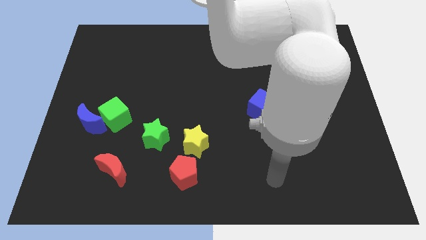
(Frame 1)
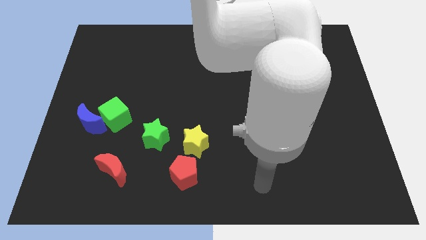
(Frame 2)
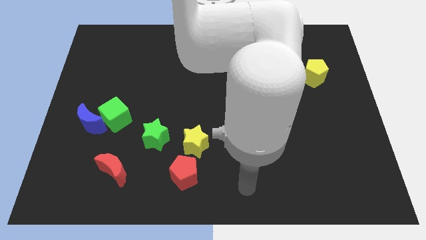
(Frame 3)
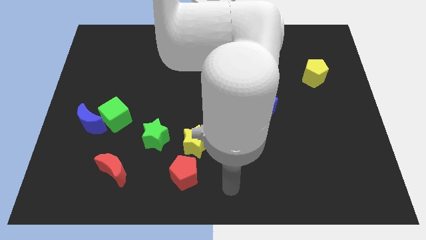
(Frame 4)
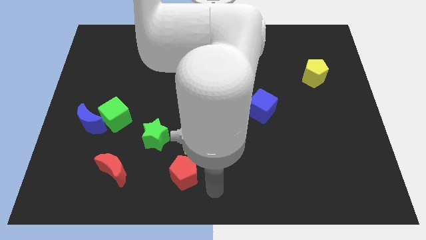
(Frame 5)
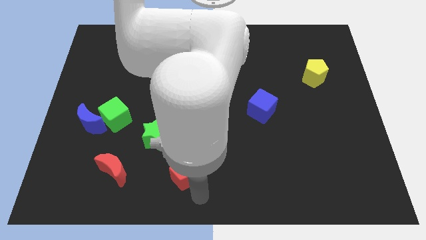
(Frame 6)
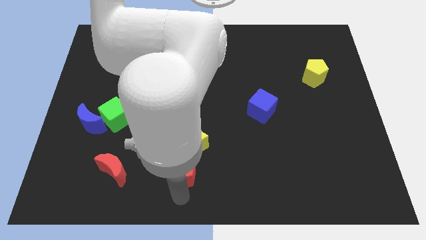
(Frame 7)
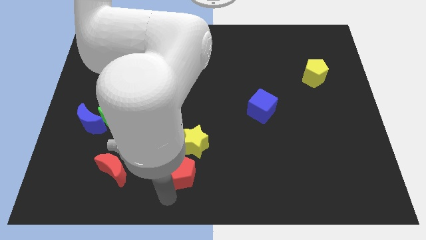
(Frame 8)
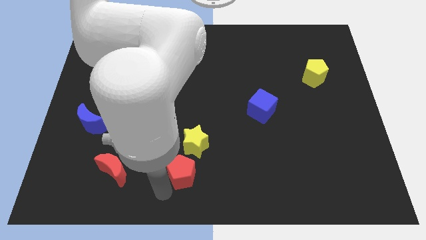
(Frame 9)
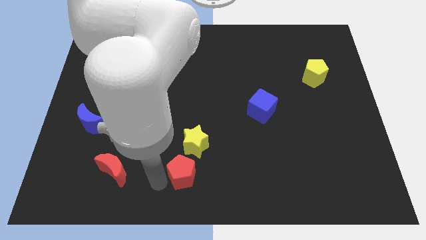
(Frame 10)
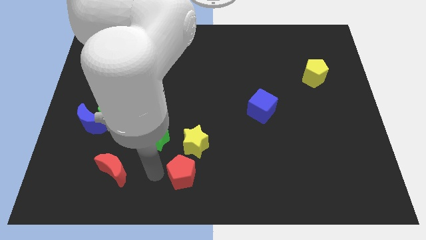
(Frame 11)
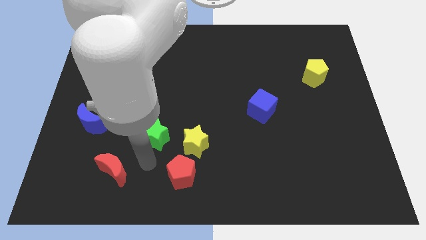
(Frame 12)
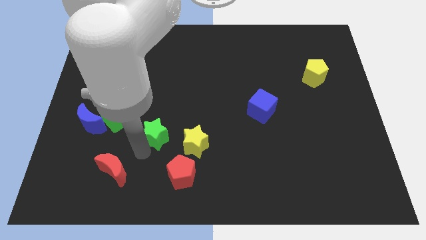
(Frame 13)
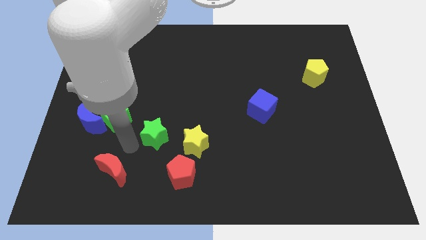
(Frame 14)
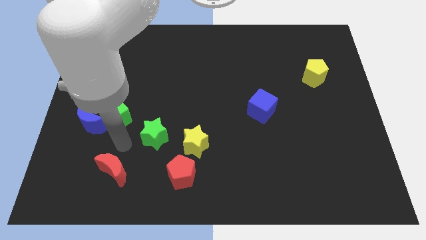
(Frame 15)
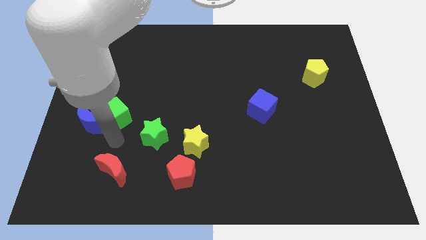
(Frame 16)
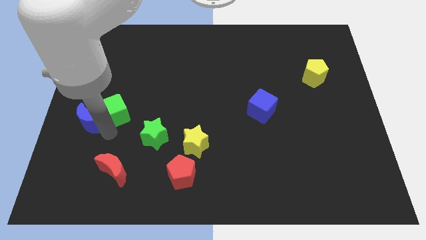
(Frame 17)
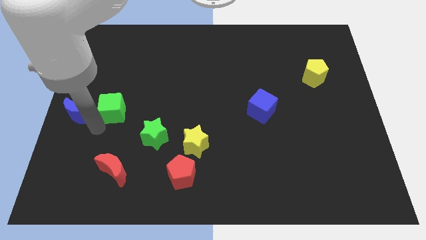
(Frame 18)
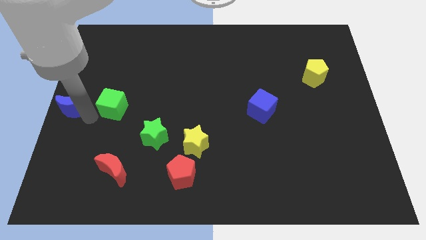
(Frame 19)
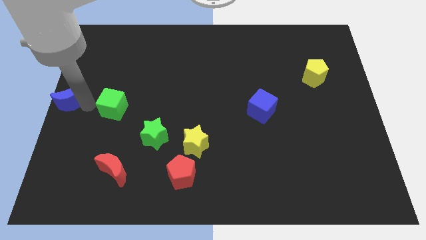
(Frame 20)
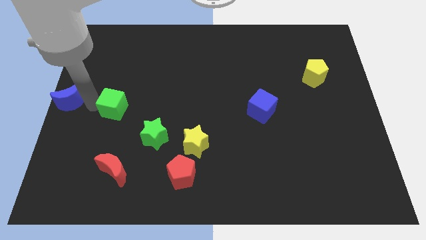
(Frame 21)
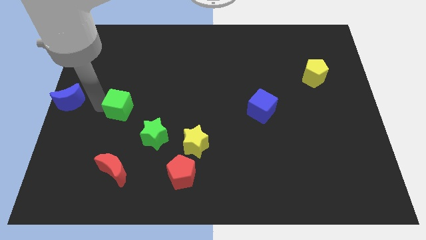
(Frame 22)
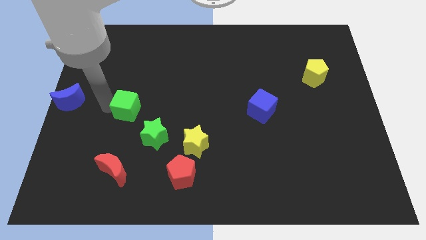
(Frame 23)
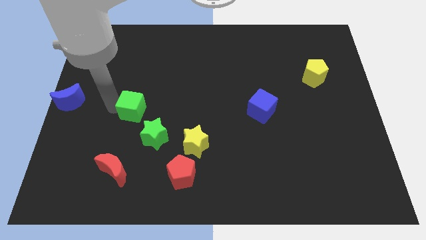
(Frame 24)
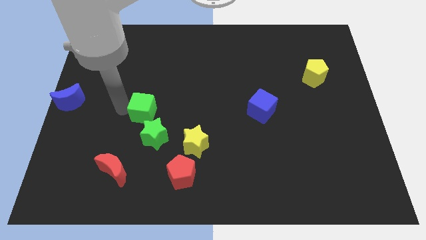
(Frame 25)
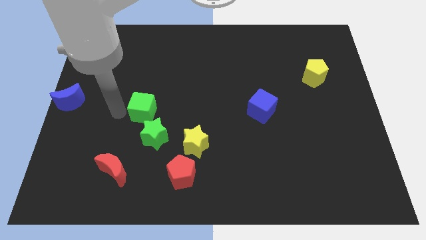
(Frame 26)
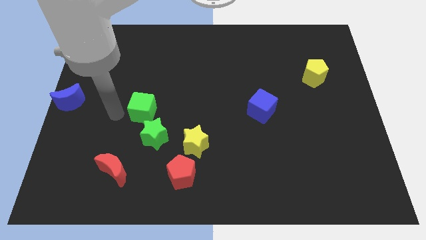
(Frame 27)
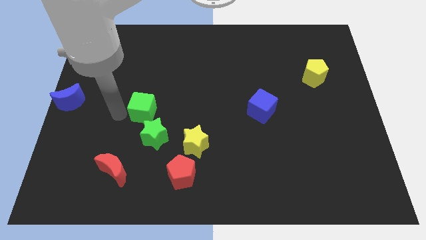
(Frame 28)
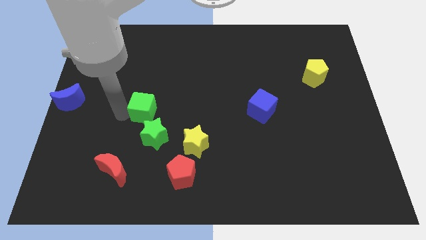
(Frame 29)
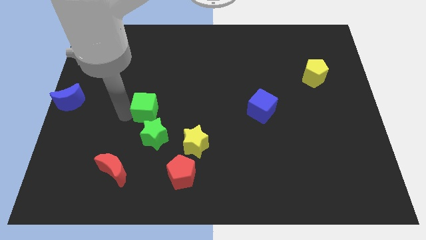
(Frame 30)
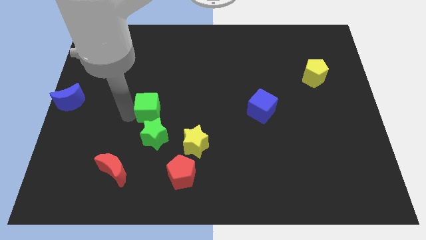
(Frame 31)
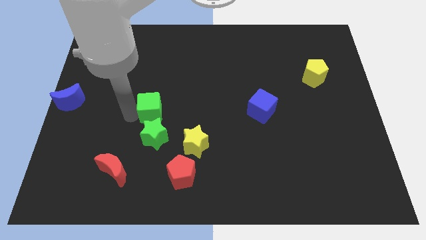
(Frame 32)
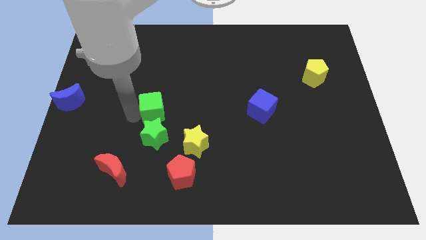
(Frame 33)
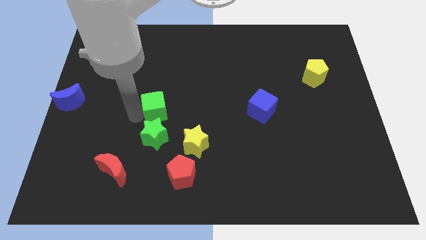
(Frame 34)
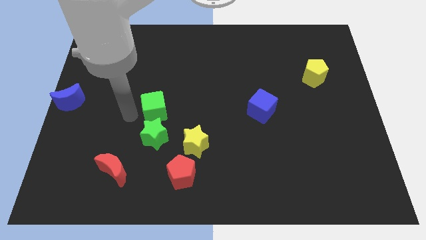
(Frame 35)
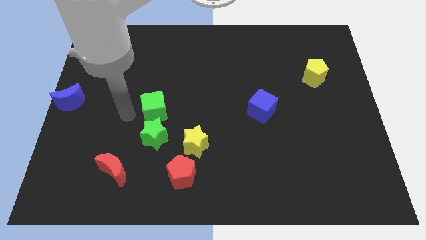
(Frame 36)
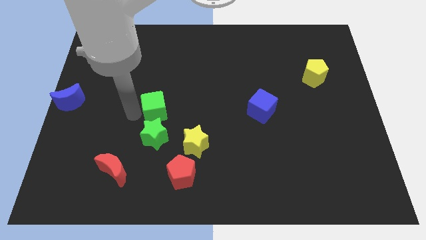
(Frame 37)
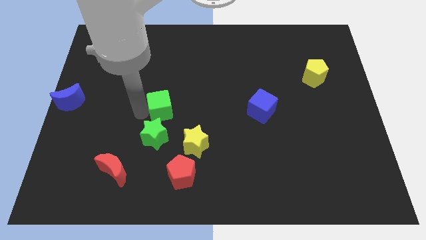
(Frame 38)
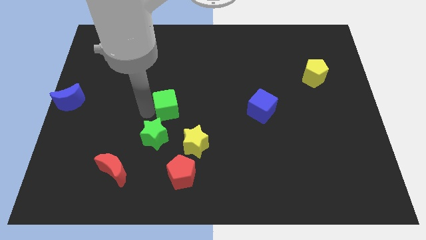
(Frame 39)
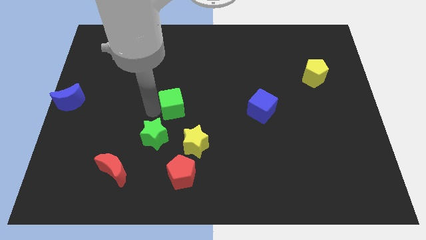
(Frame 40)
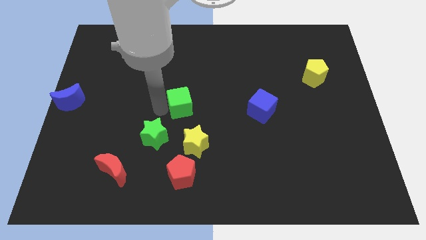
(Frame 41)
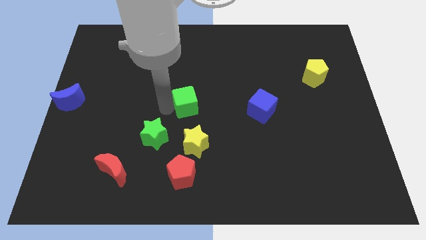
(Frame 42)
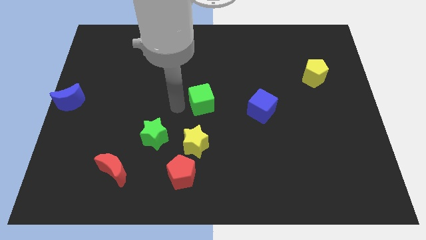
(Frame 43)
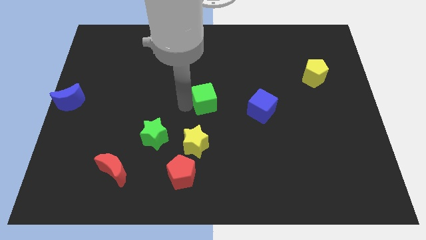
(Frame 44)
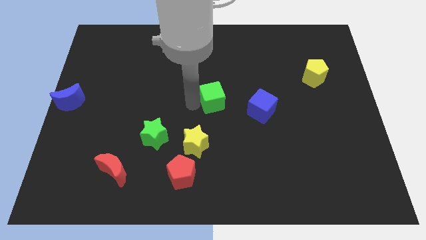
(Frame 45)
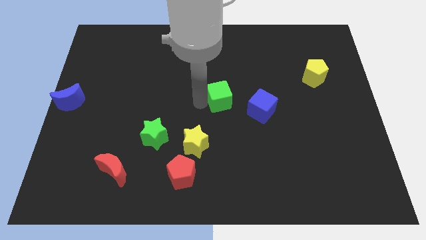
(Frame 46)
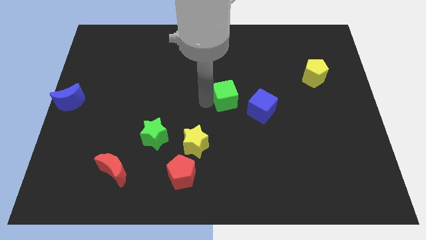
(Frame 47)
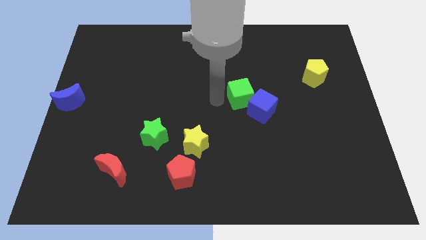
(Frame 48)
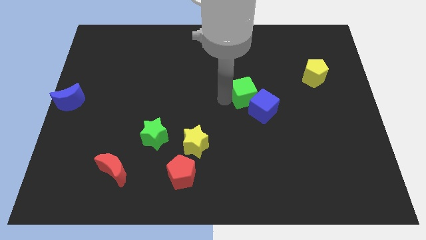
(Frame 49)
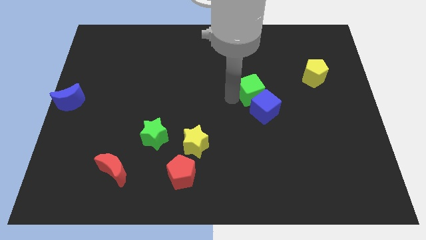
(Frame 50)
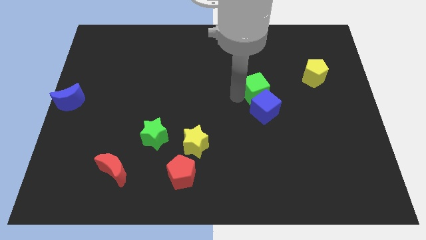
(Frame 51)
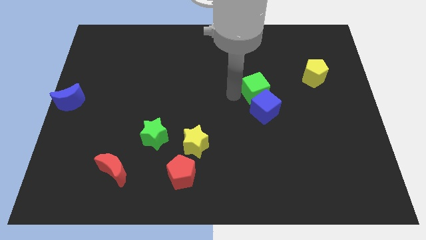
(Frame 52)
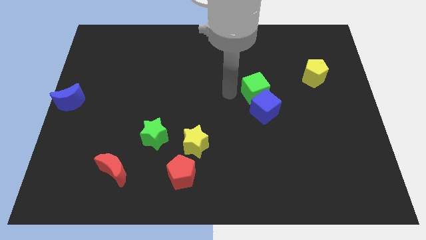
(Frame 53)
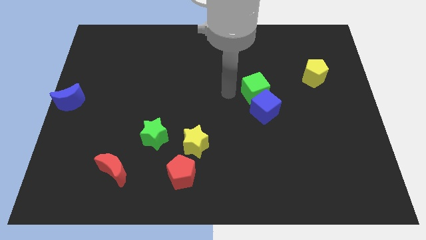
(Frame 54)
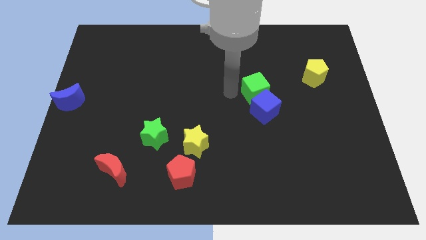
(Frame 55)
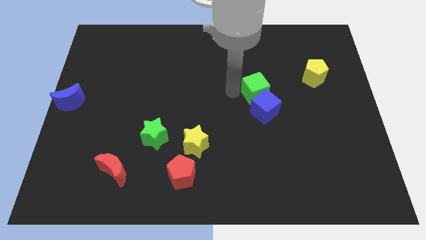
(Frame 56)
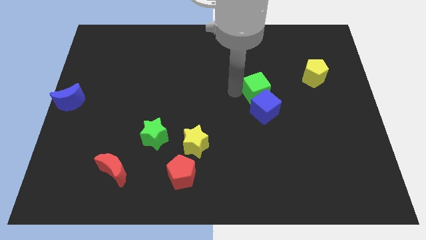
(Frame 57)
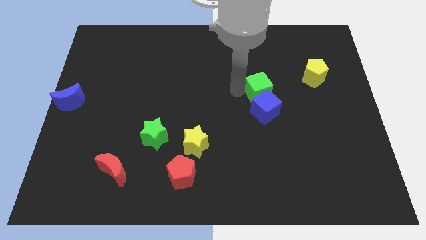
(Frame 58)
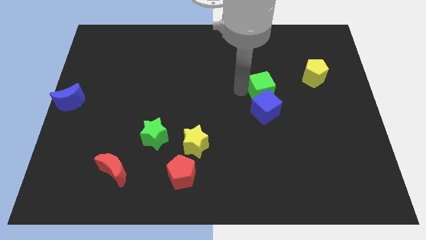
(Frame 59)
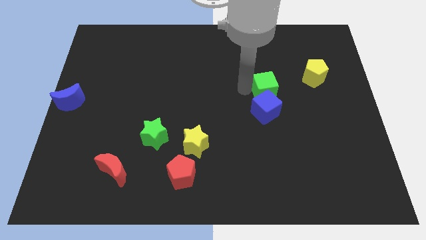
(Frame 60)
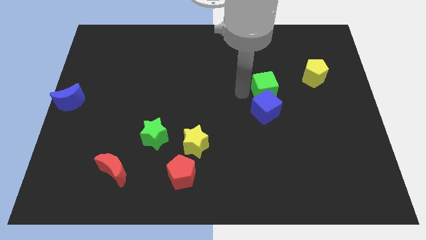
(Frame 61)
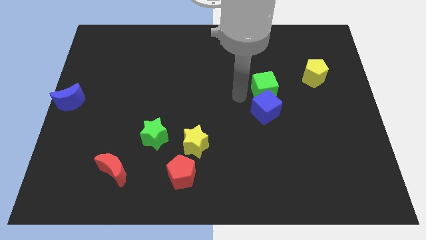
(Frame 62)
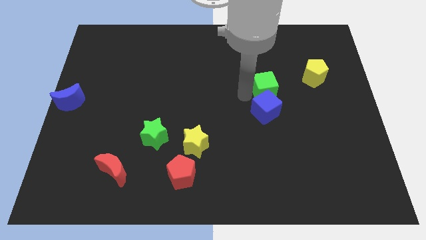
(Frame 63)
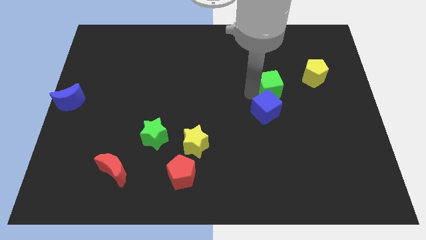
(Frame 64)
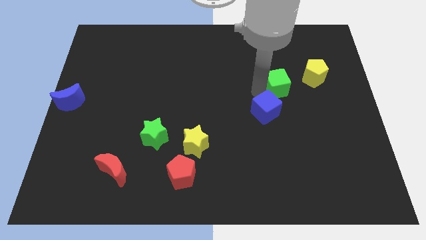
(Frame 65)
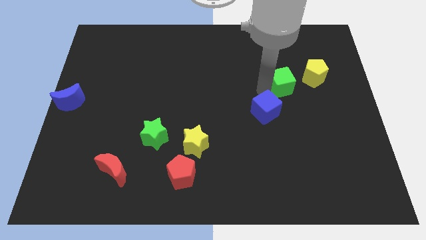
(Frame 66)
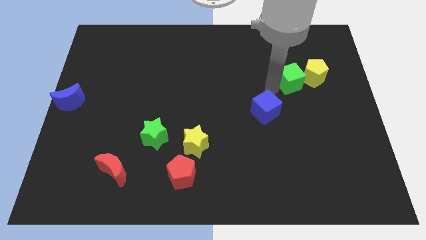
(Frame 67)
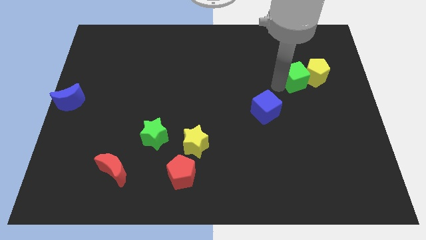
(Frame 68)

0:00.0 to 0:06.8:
move the green cube to the yellow pentagon

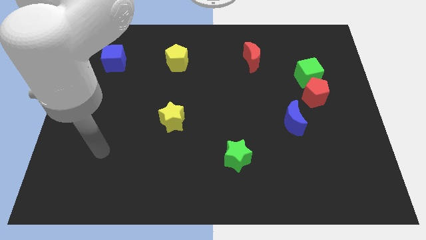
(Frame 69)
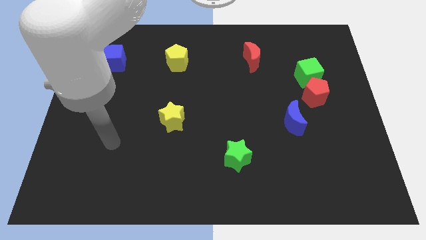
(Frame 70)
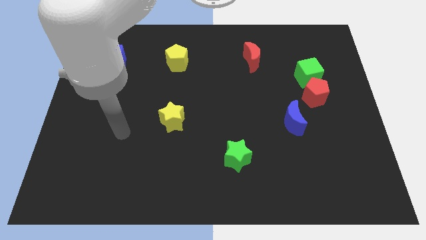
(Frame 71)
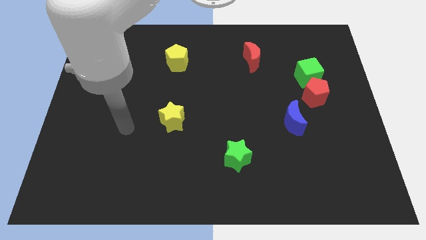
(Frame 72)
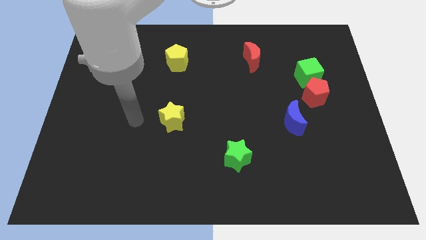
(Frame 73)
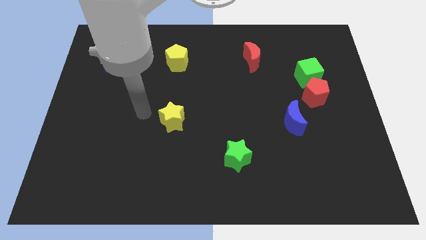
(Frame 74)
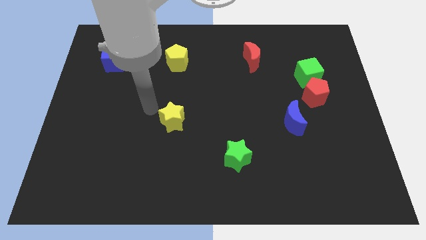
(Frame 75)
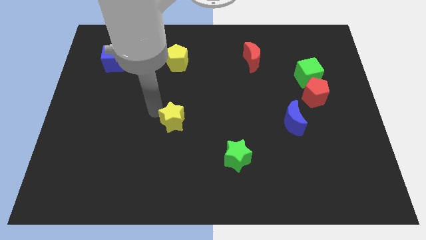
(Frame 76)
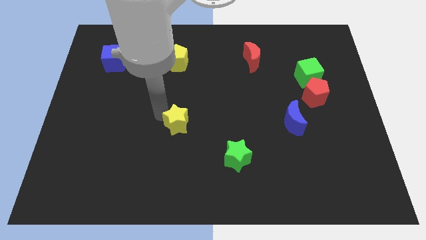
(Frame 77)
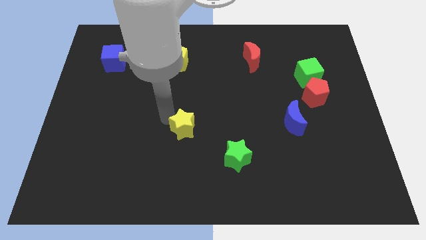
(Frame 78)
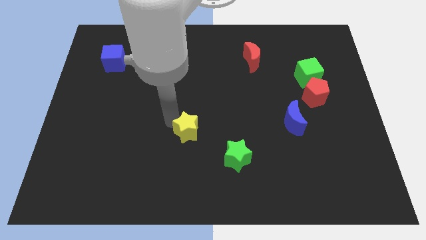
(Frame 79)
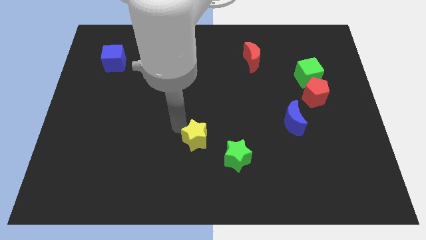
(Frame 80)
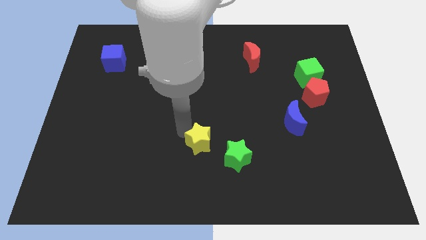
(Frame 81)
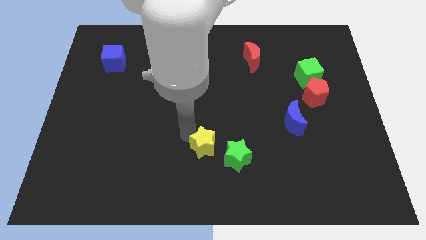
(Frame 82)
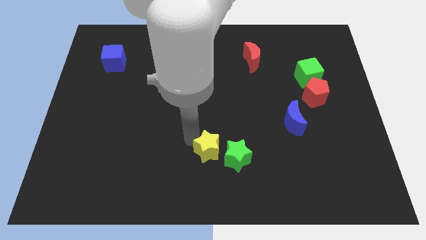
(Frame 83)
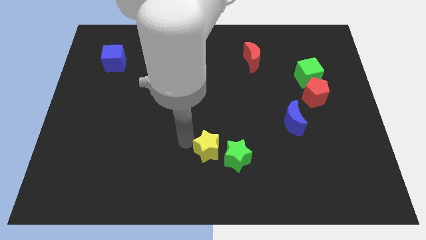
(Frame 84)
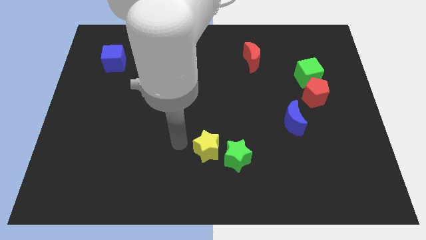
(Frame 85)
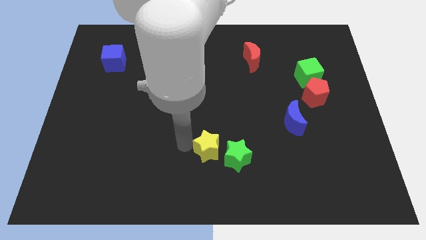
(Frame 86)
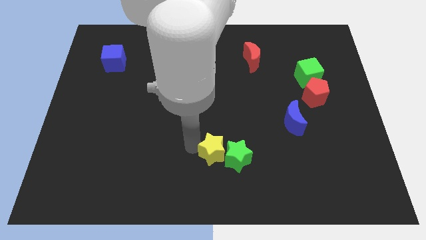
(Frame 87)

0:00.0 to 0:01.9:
move the yellow star to the green star
